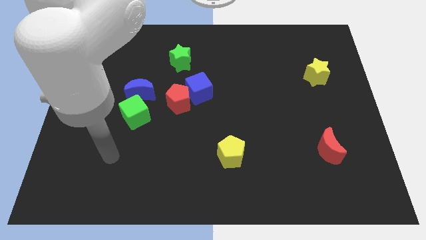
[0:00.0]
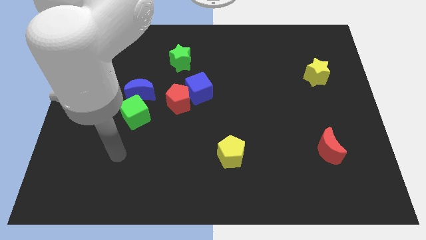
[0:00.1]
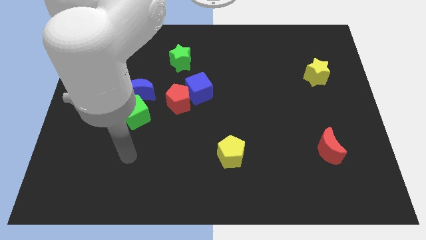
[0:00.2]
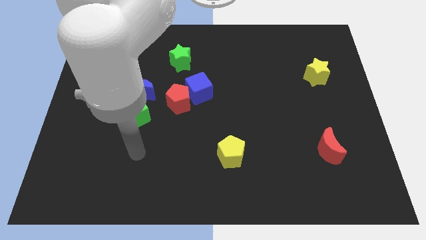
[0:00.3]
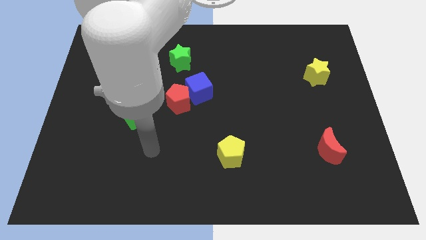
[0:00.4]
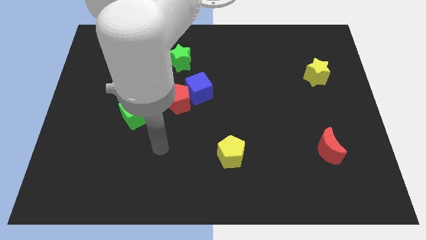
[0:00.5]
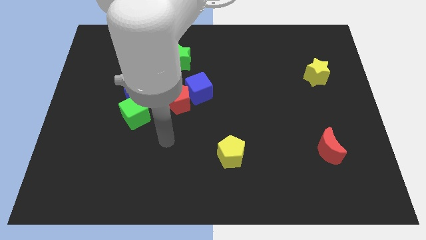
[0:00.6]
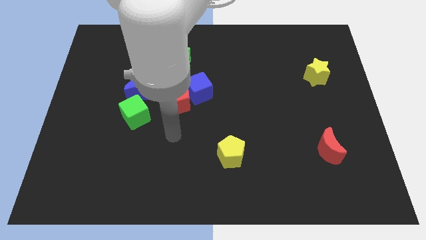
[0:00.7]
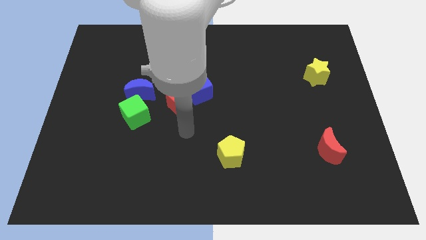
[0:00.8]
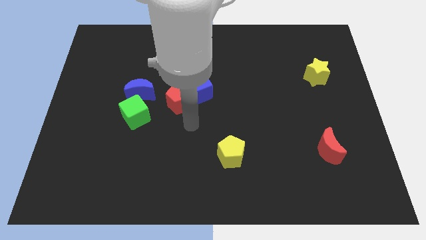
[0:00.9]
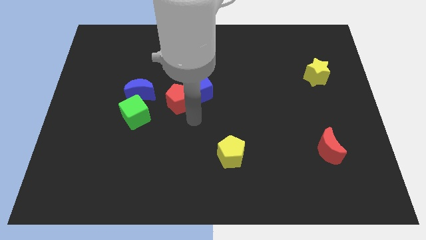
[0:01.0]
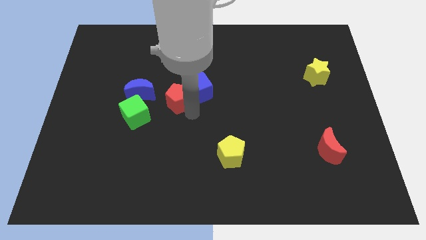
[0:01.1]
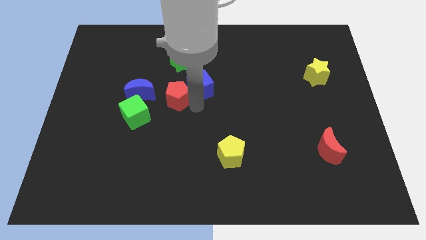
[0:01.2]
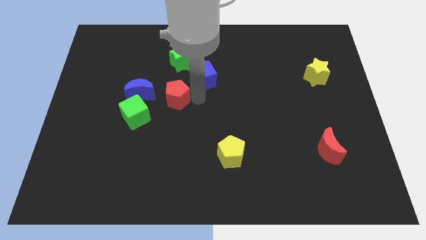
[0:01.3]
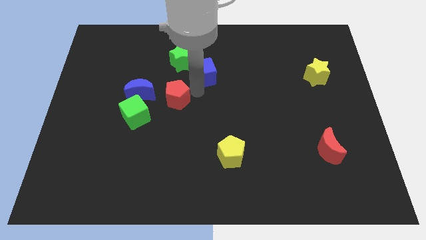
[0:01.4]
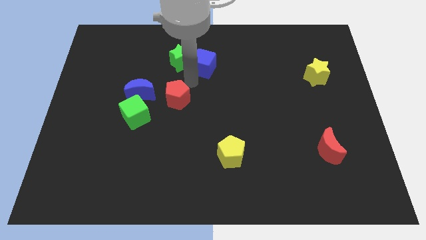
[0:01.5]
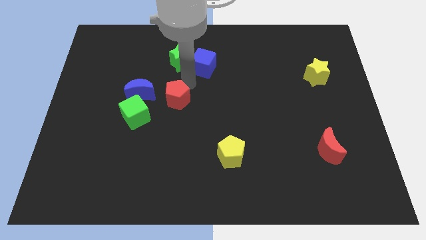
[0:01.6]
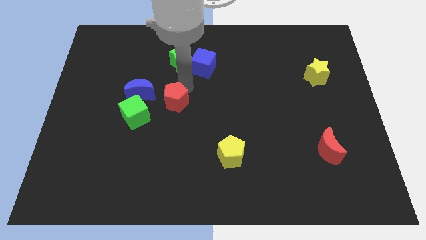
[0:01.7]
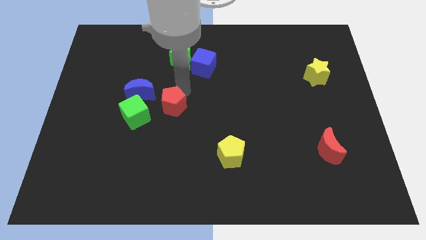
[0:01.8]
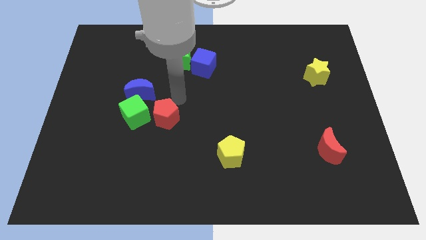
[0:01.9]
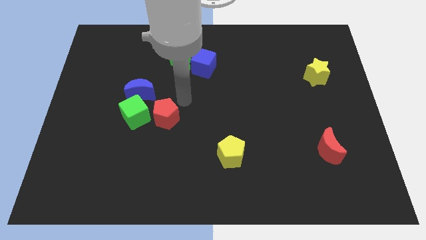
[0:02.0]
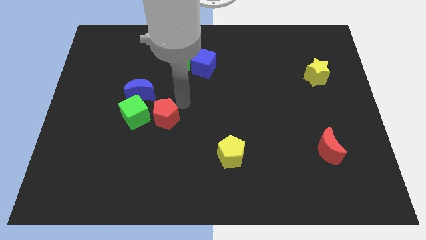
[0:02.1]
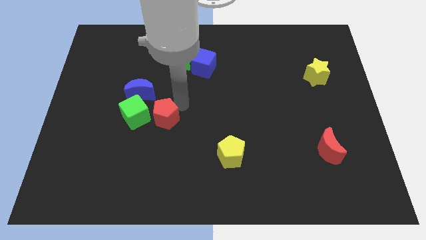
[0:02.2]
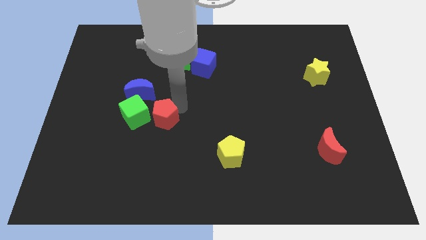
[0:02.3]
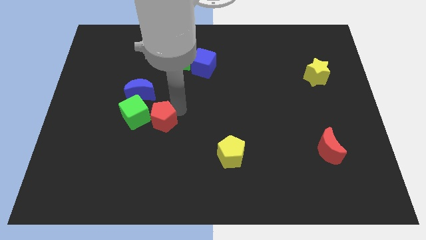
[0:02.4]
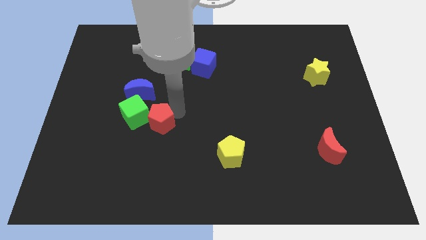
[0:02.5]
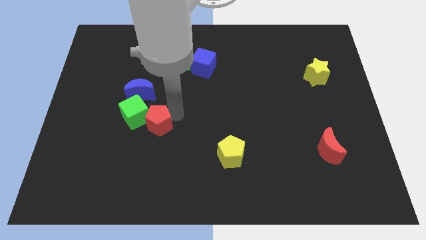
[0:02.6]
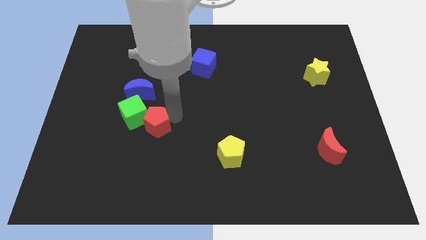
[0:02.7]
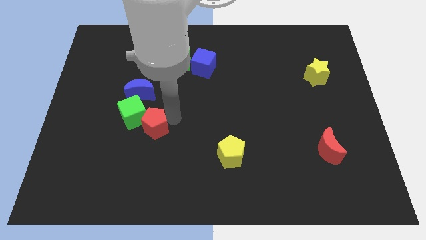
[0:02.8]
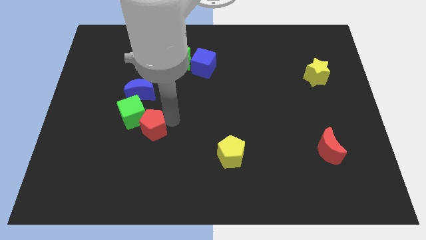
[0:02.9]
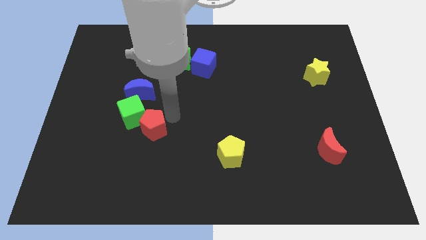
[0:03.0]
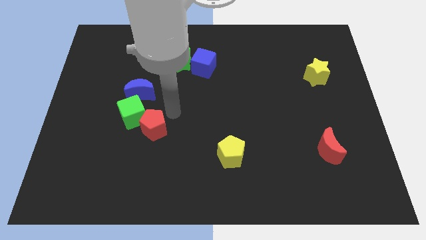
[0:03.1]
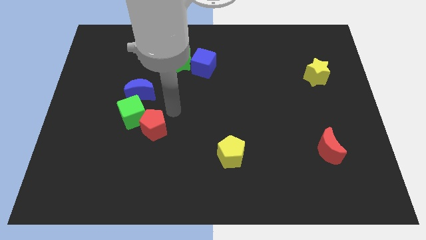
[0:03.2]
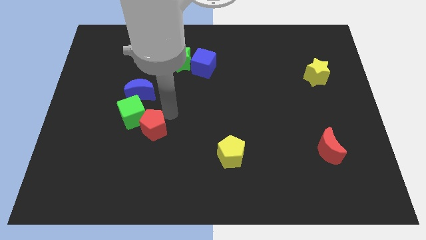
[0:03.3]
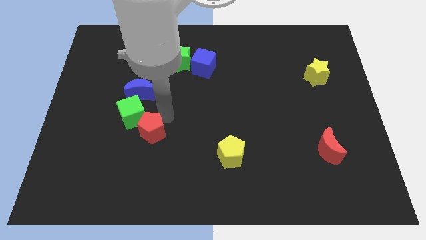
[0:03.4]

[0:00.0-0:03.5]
slide the red pentagon to the bottom of the green cube

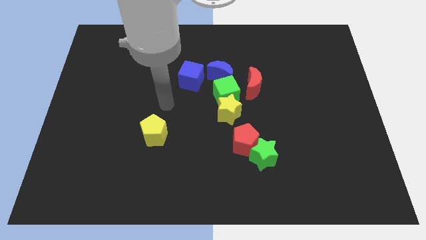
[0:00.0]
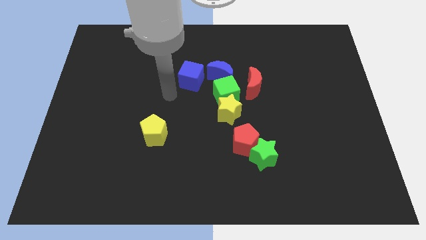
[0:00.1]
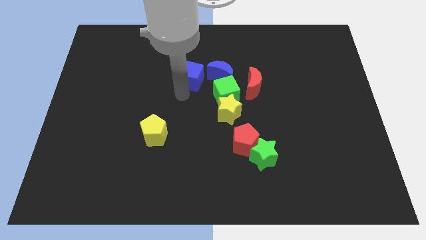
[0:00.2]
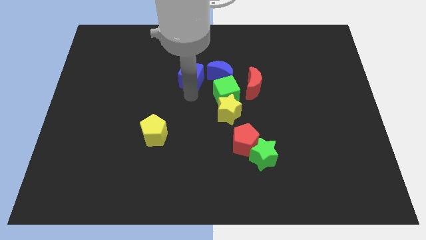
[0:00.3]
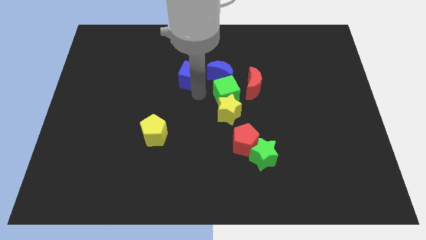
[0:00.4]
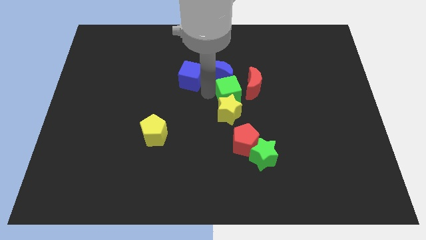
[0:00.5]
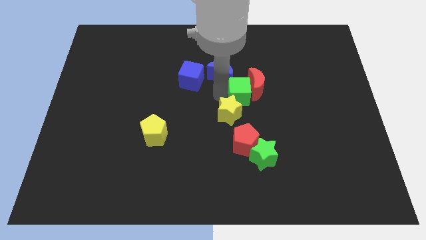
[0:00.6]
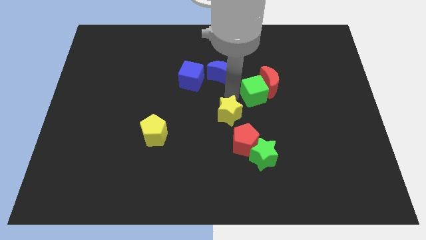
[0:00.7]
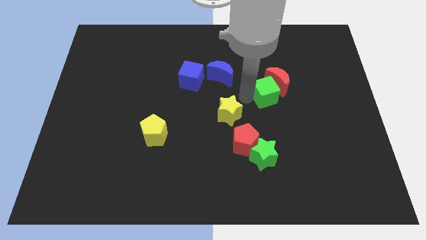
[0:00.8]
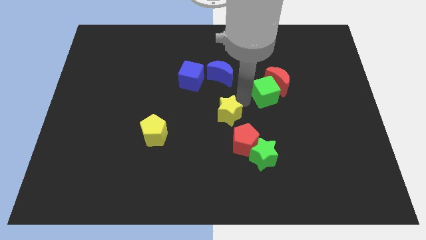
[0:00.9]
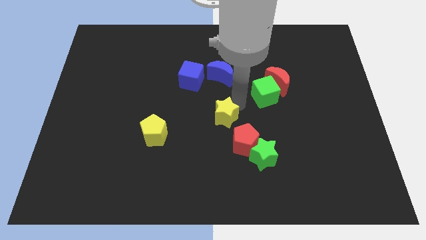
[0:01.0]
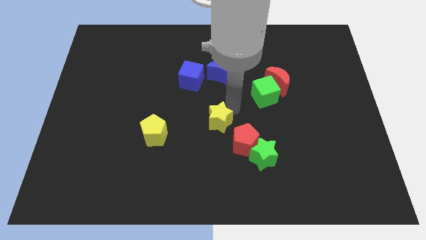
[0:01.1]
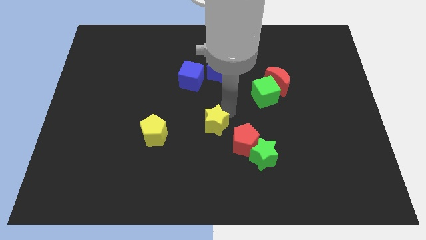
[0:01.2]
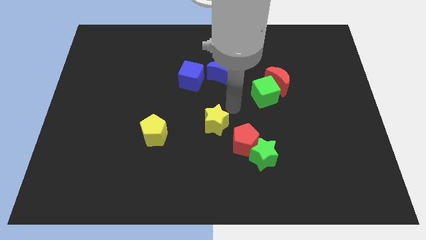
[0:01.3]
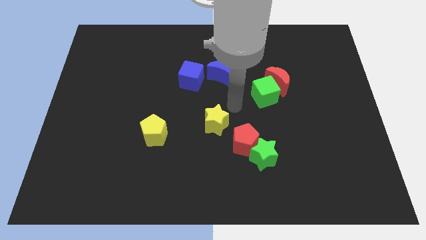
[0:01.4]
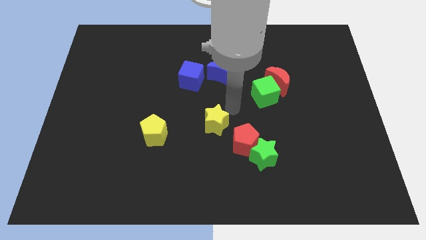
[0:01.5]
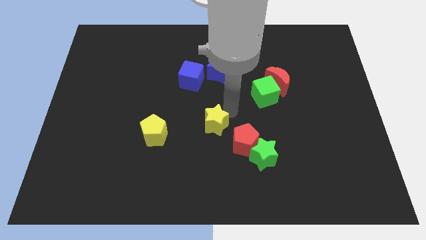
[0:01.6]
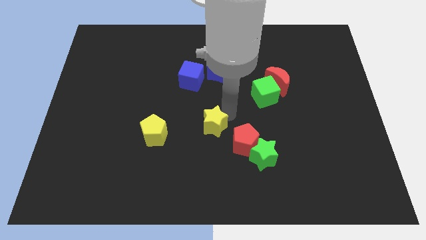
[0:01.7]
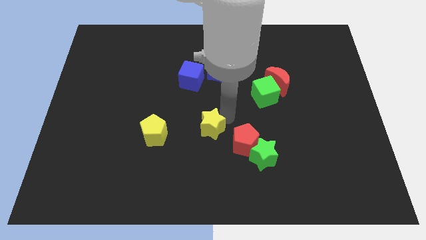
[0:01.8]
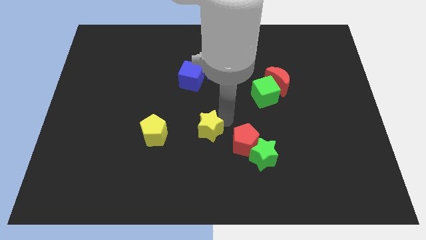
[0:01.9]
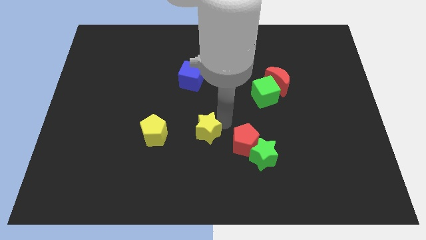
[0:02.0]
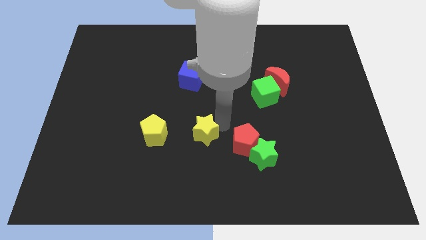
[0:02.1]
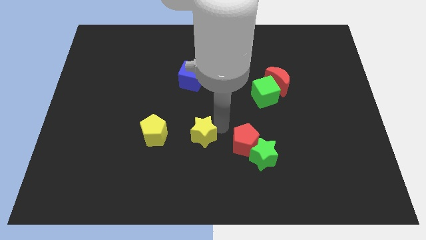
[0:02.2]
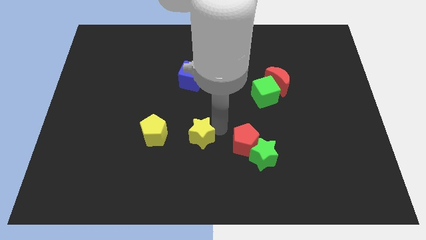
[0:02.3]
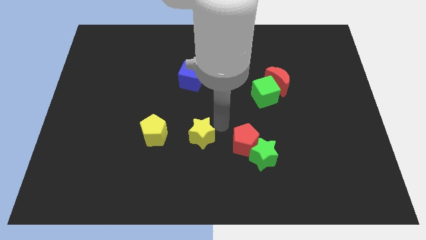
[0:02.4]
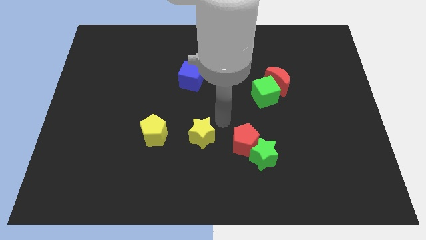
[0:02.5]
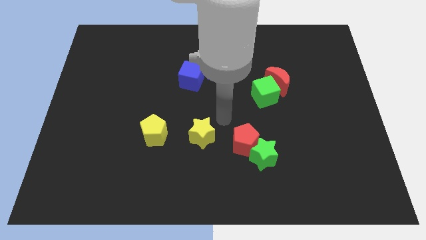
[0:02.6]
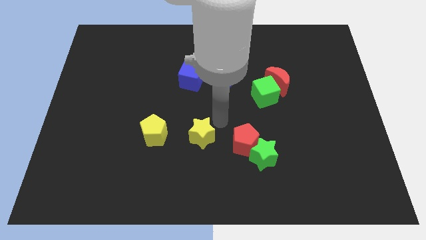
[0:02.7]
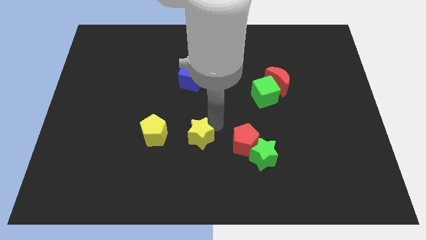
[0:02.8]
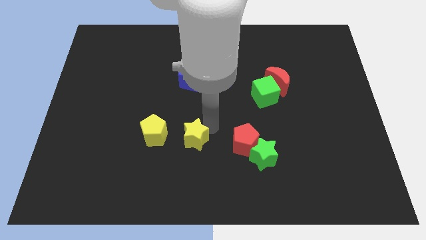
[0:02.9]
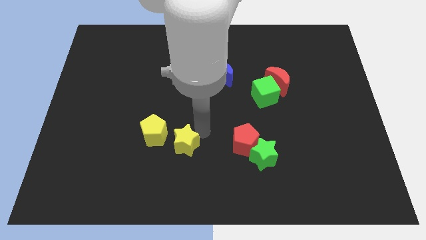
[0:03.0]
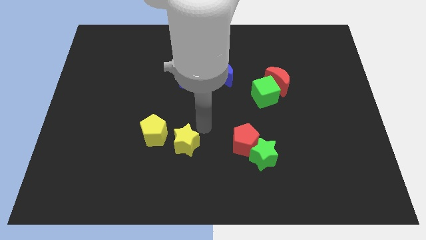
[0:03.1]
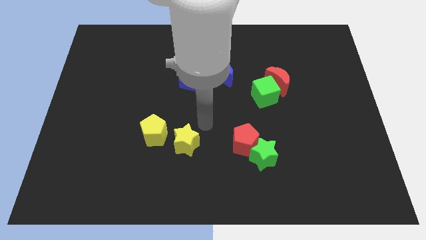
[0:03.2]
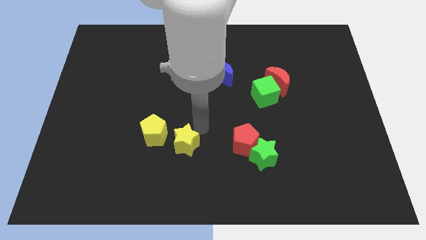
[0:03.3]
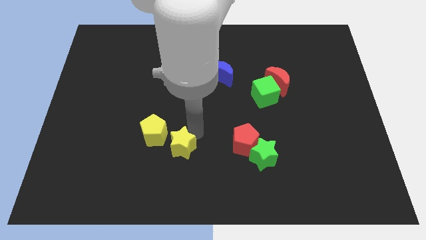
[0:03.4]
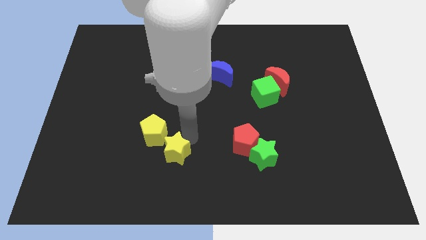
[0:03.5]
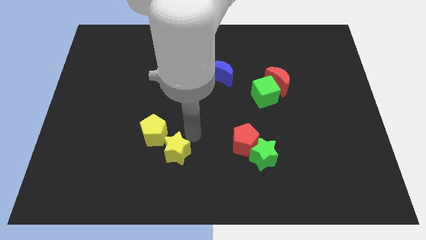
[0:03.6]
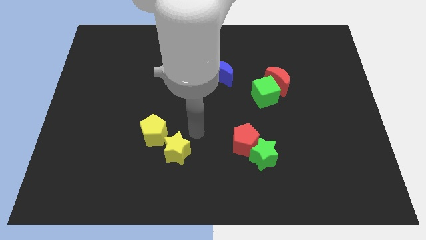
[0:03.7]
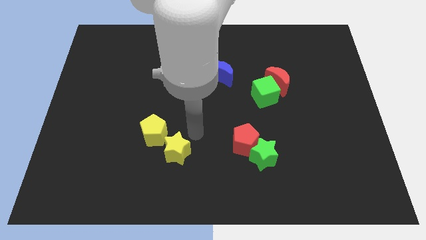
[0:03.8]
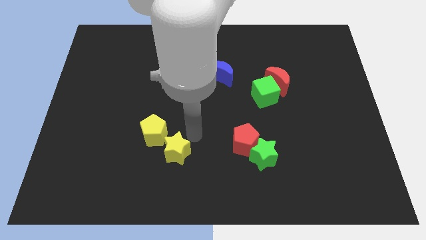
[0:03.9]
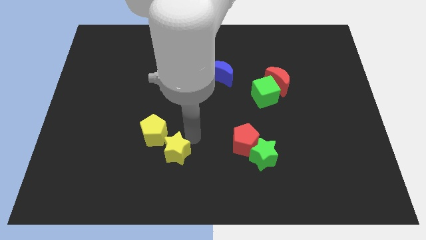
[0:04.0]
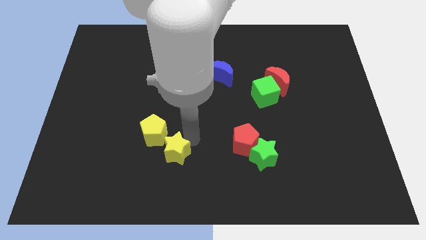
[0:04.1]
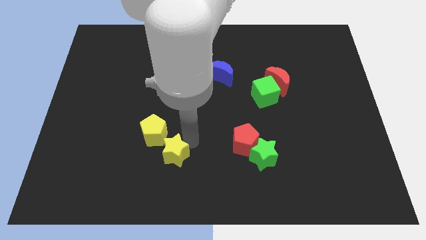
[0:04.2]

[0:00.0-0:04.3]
slide the yellow star below the yellow pentagon
